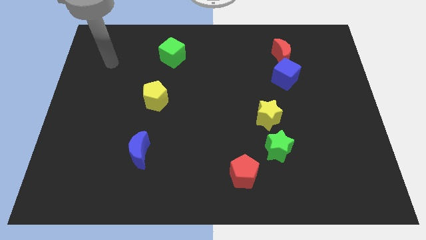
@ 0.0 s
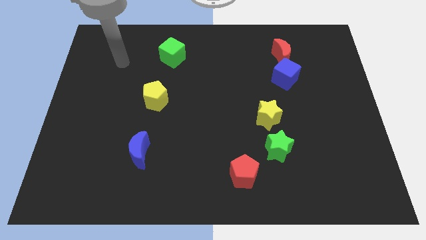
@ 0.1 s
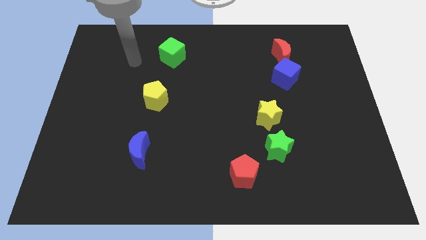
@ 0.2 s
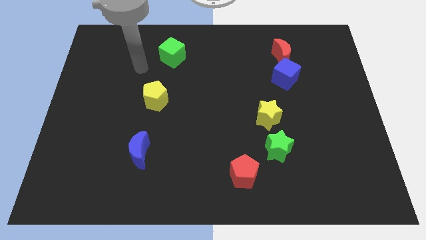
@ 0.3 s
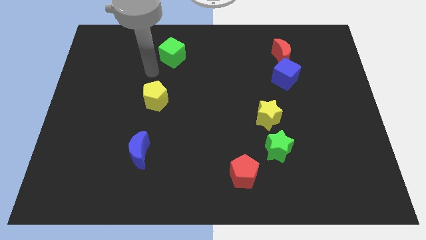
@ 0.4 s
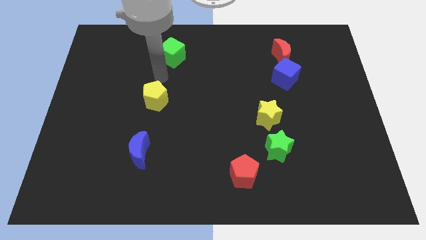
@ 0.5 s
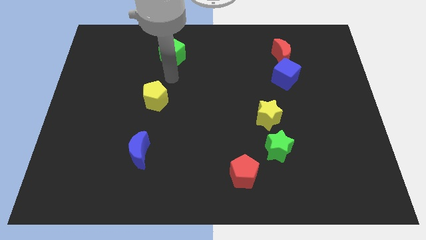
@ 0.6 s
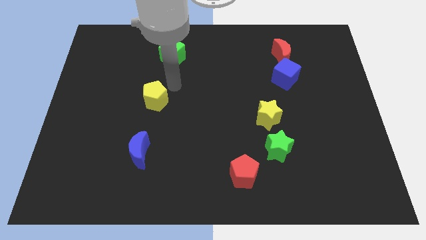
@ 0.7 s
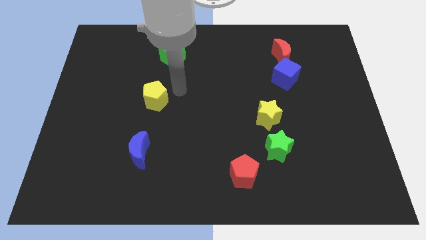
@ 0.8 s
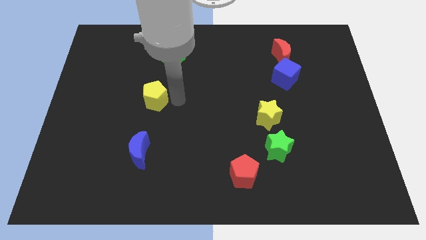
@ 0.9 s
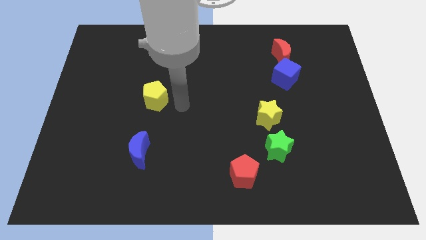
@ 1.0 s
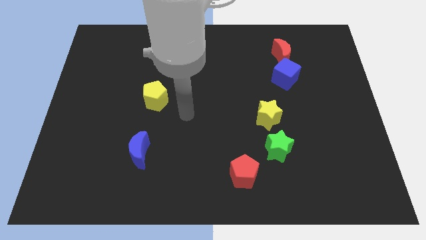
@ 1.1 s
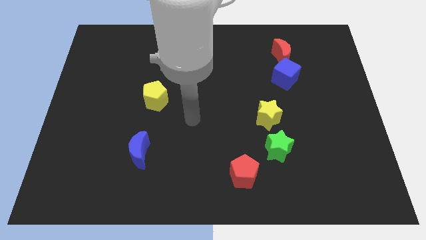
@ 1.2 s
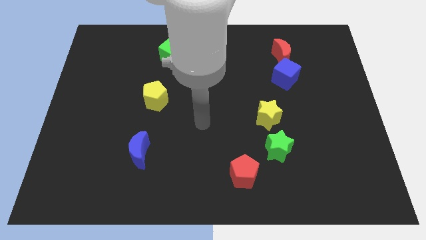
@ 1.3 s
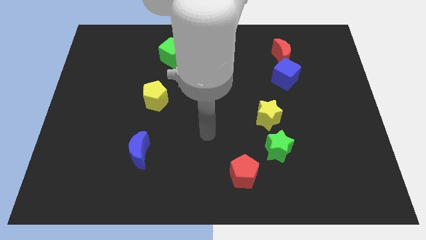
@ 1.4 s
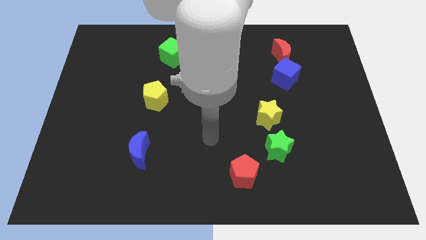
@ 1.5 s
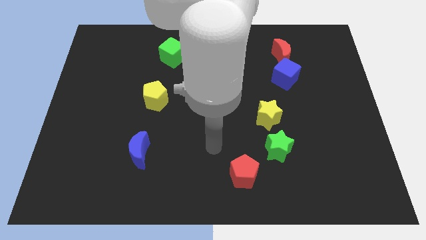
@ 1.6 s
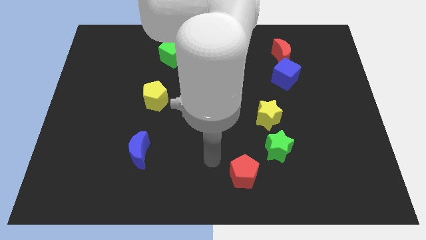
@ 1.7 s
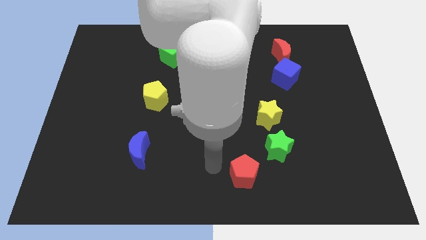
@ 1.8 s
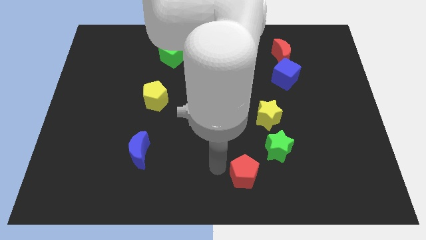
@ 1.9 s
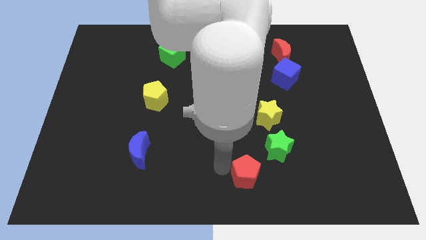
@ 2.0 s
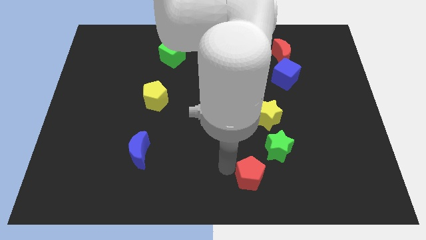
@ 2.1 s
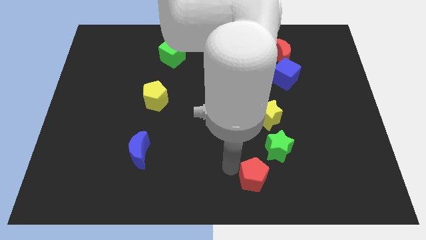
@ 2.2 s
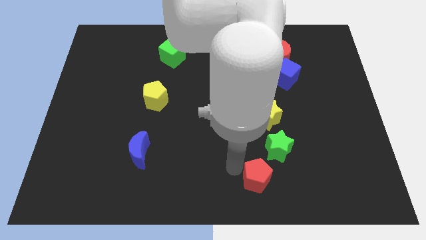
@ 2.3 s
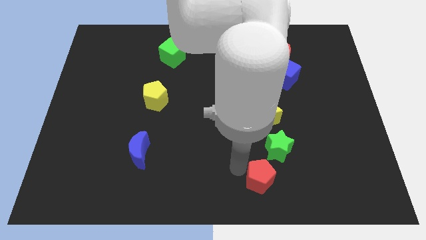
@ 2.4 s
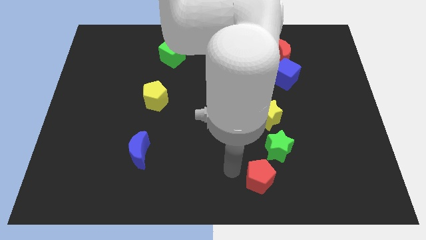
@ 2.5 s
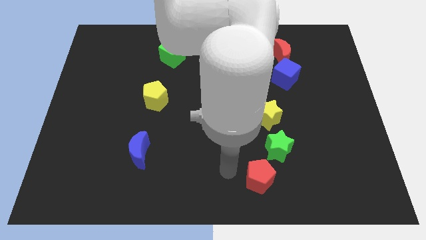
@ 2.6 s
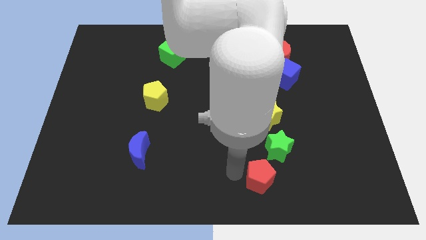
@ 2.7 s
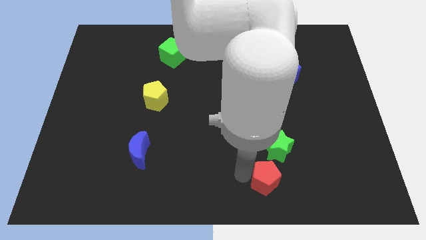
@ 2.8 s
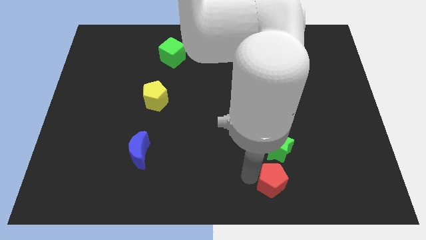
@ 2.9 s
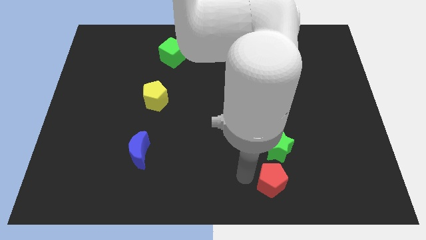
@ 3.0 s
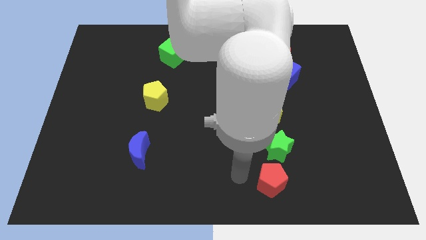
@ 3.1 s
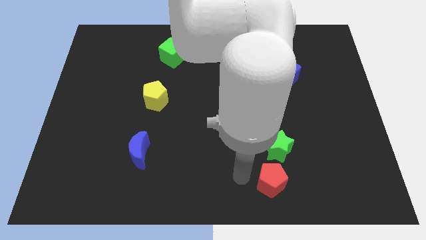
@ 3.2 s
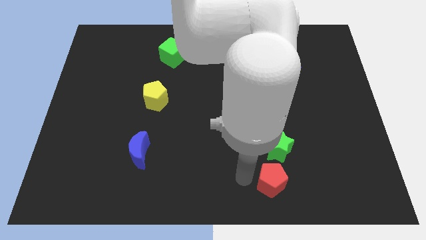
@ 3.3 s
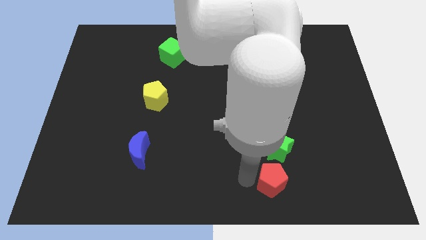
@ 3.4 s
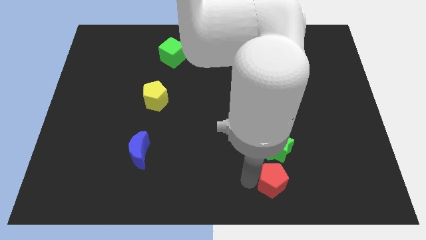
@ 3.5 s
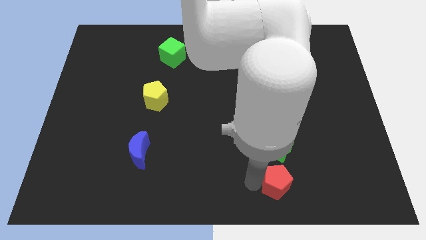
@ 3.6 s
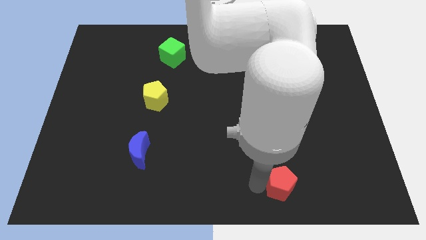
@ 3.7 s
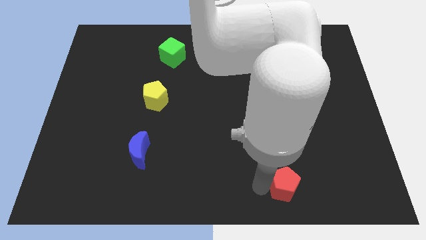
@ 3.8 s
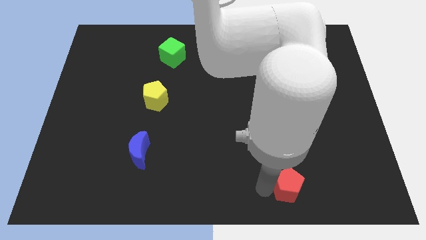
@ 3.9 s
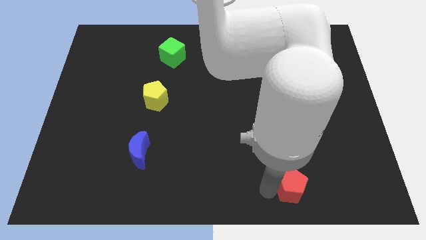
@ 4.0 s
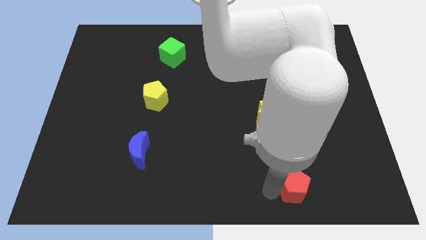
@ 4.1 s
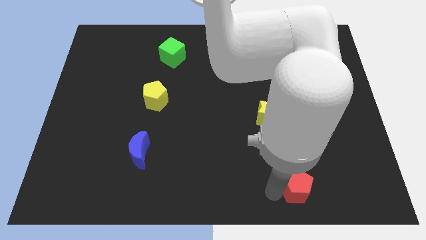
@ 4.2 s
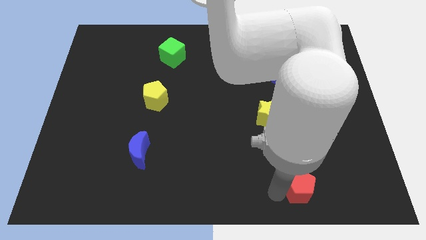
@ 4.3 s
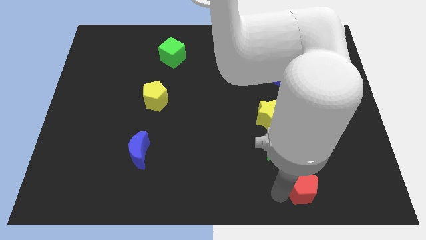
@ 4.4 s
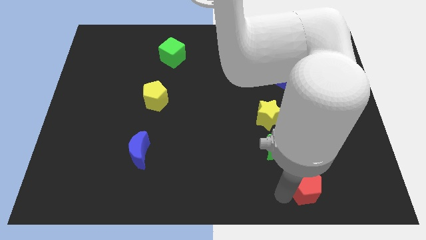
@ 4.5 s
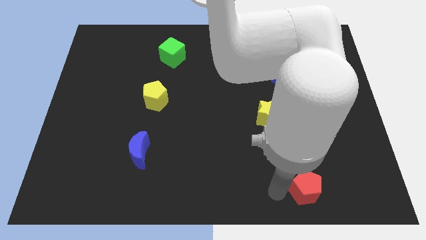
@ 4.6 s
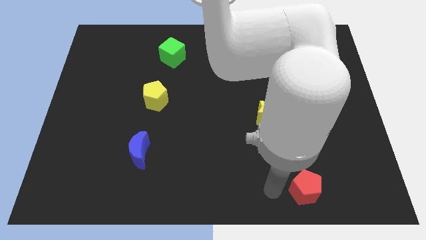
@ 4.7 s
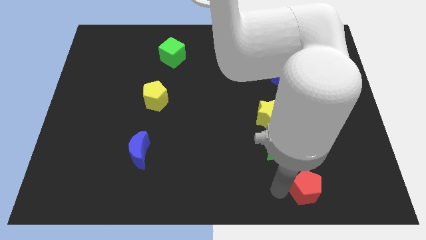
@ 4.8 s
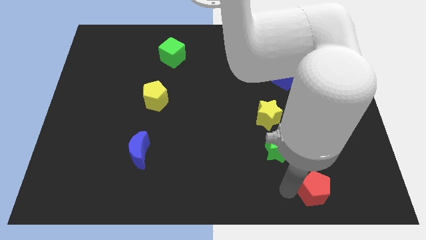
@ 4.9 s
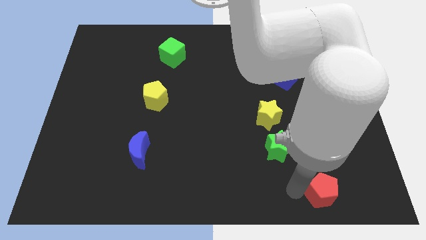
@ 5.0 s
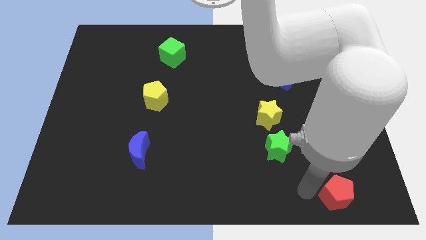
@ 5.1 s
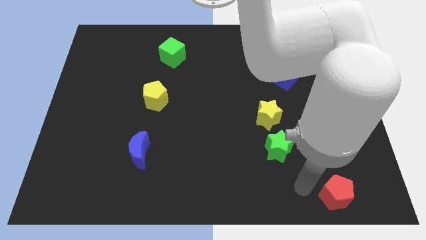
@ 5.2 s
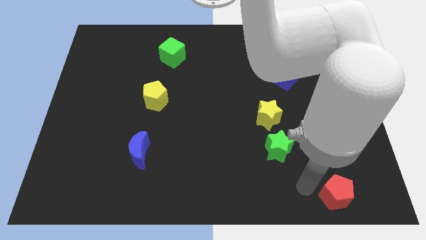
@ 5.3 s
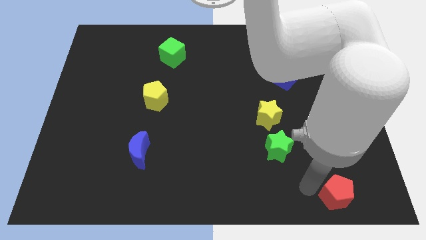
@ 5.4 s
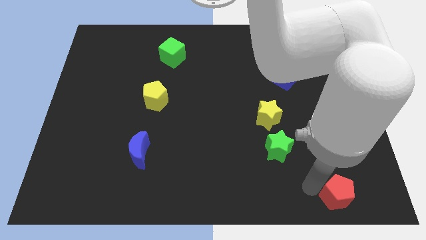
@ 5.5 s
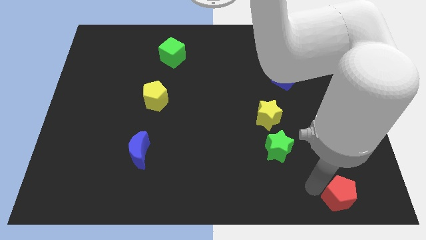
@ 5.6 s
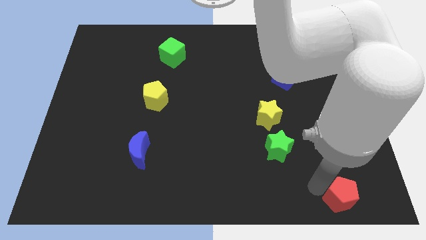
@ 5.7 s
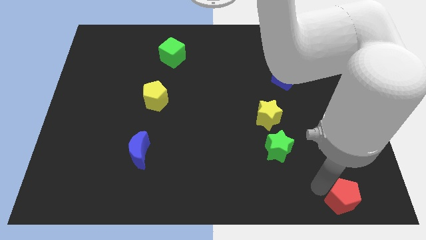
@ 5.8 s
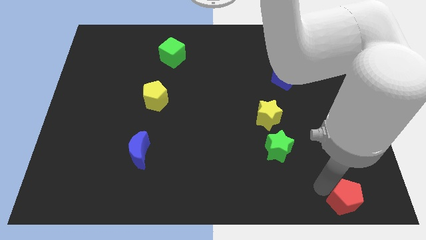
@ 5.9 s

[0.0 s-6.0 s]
move the red pentagon to the bottom right of the board

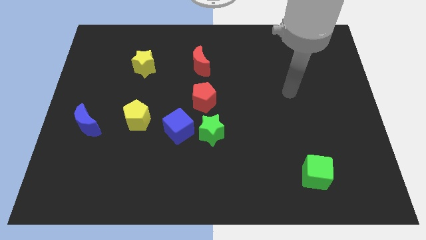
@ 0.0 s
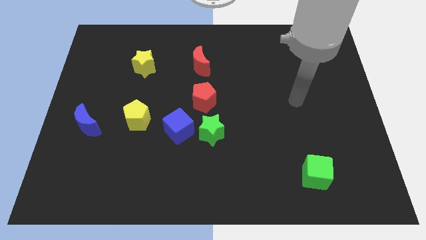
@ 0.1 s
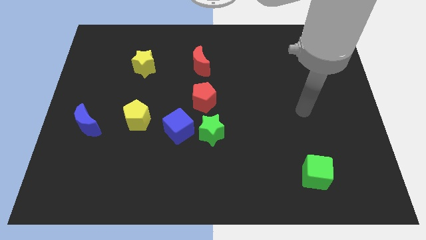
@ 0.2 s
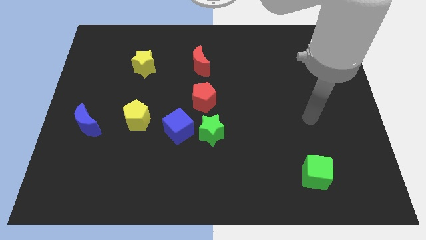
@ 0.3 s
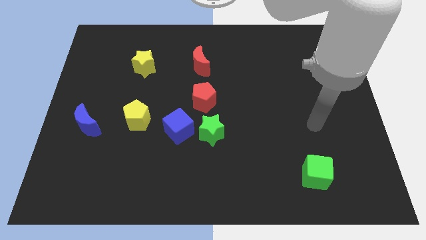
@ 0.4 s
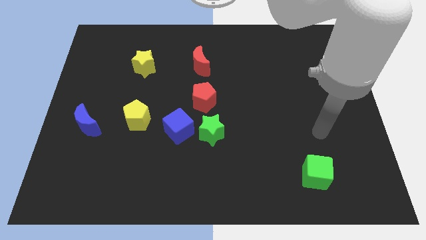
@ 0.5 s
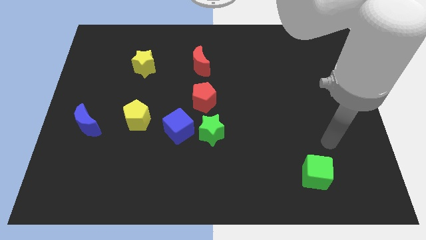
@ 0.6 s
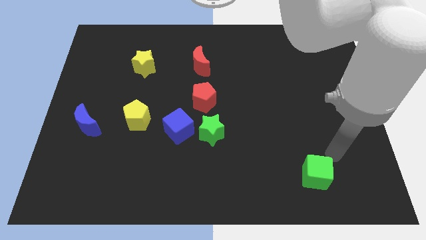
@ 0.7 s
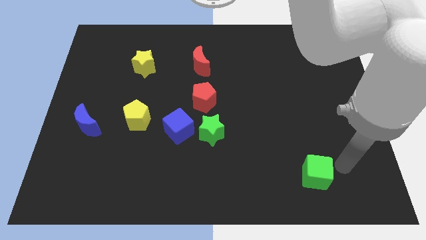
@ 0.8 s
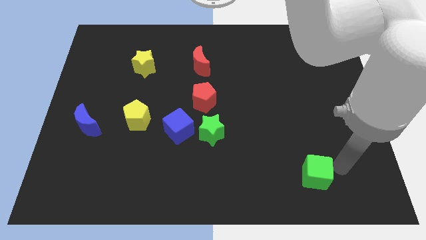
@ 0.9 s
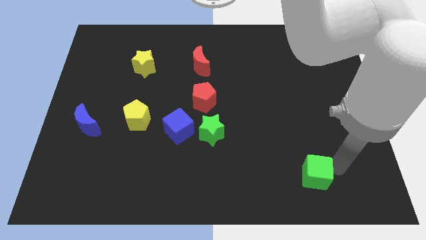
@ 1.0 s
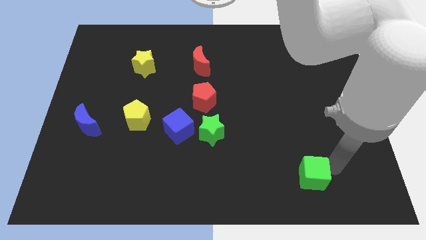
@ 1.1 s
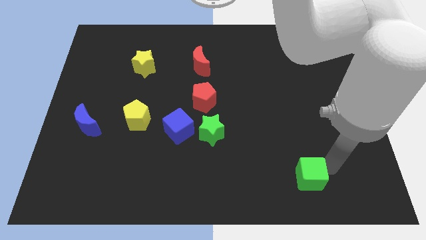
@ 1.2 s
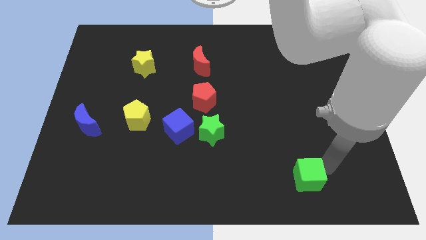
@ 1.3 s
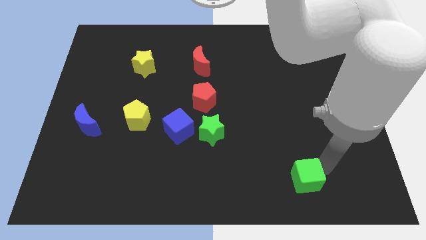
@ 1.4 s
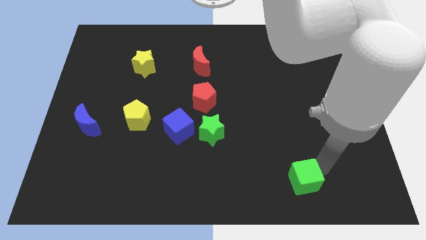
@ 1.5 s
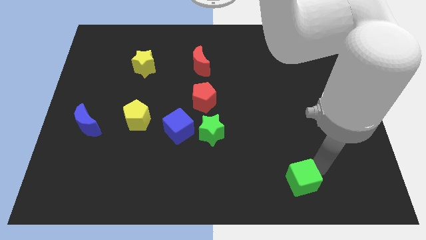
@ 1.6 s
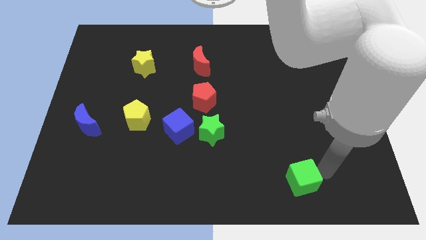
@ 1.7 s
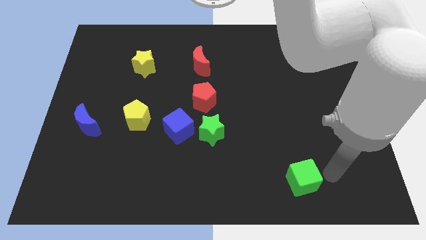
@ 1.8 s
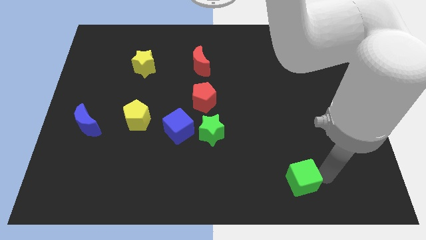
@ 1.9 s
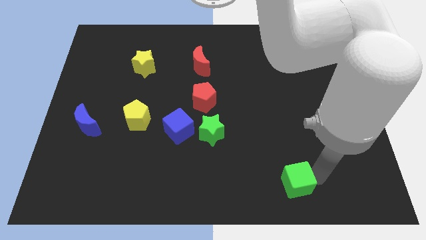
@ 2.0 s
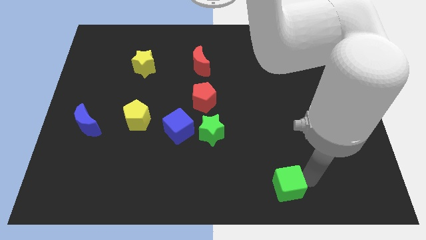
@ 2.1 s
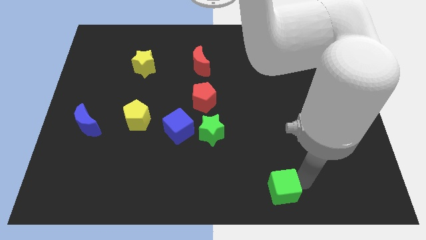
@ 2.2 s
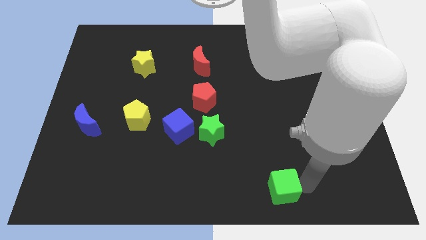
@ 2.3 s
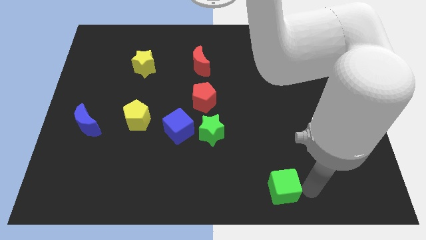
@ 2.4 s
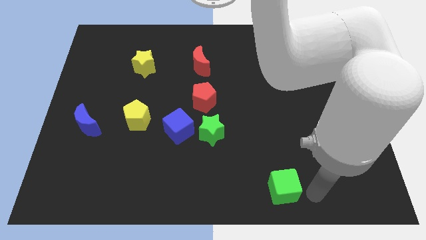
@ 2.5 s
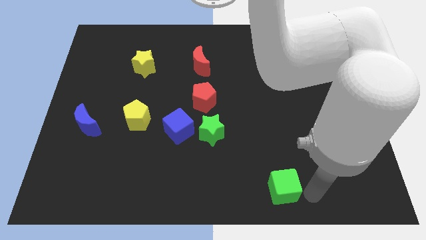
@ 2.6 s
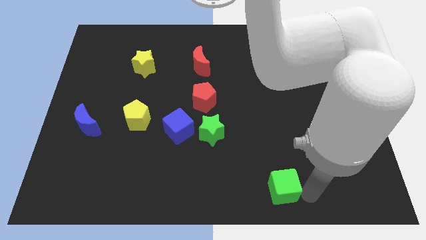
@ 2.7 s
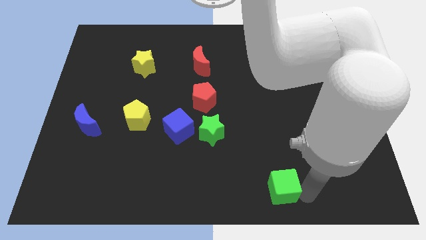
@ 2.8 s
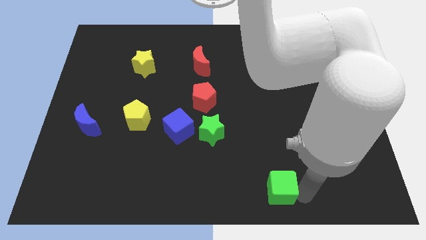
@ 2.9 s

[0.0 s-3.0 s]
put the green cube to the bottom side
